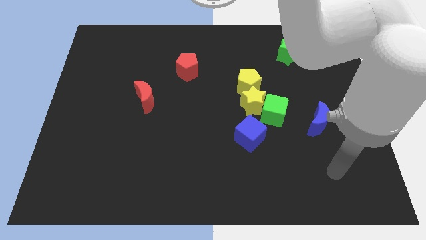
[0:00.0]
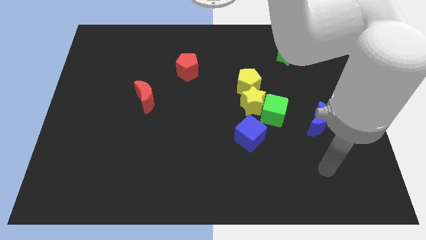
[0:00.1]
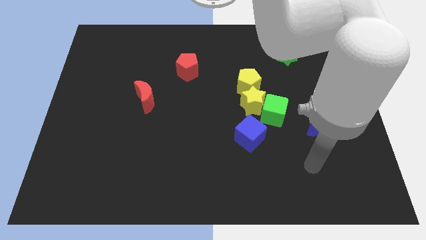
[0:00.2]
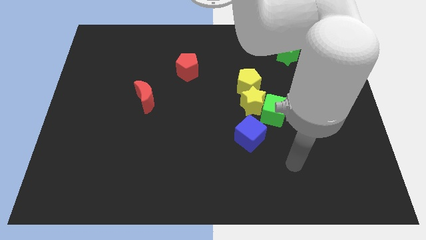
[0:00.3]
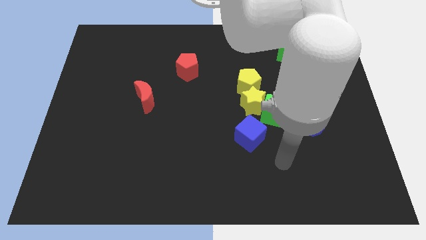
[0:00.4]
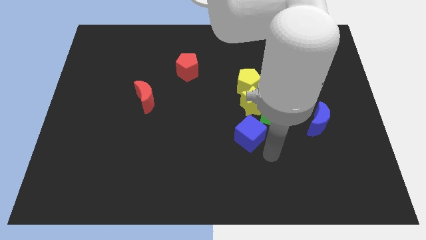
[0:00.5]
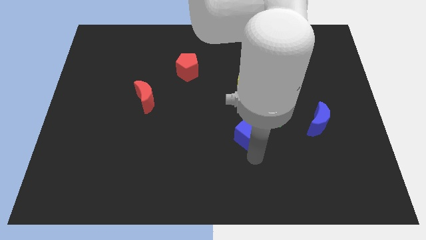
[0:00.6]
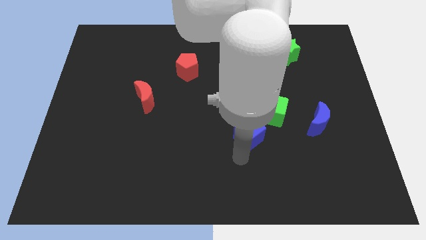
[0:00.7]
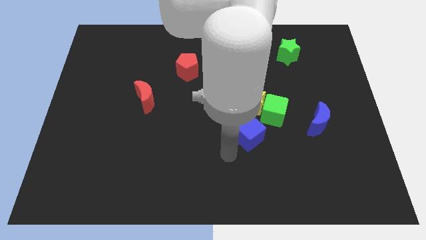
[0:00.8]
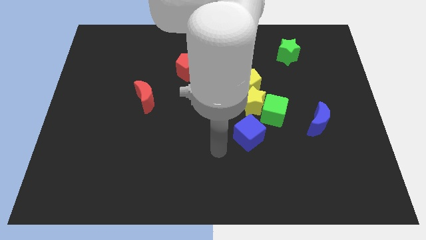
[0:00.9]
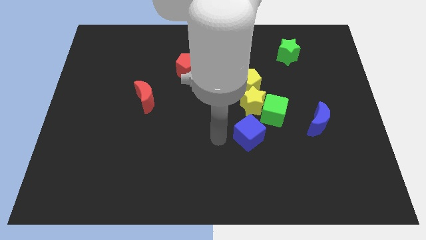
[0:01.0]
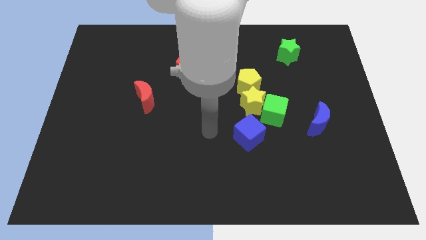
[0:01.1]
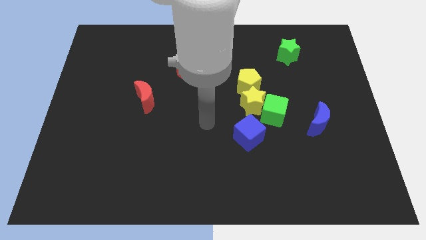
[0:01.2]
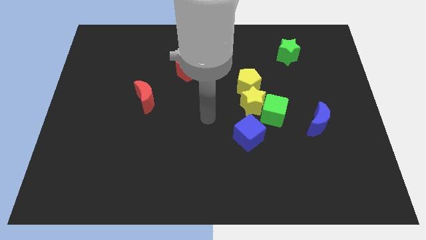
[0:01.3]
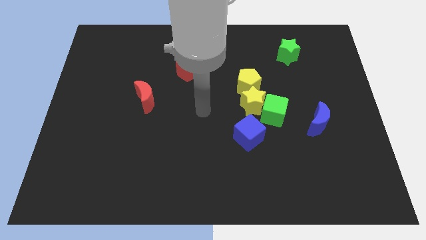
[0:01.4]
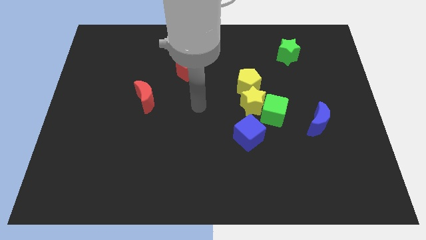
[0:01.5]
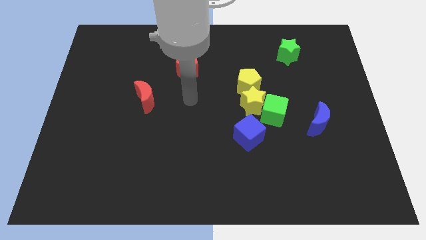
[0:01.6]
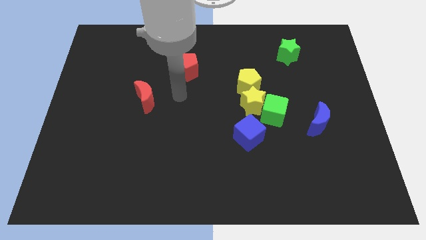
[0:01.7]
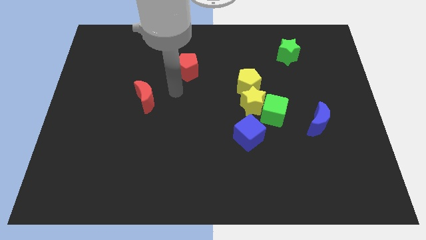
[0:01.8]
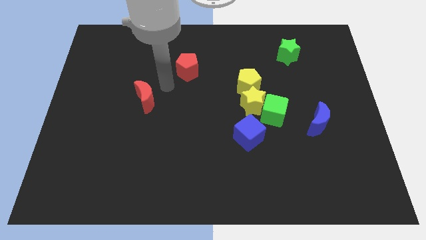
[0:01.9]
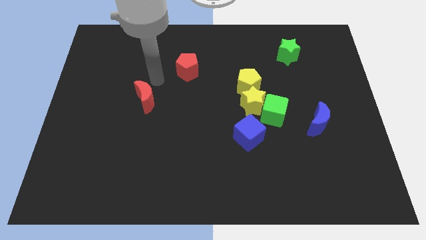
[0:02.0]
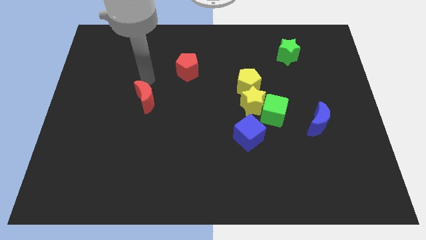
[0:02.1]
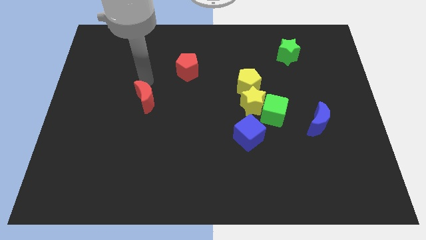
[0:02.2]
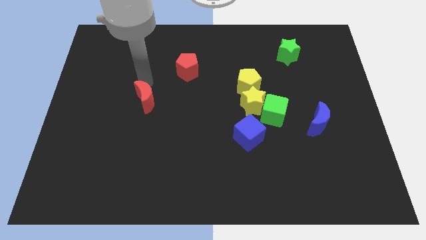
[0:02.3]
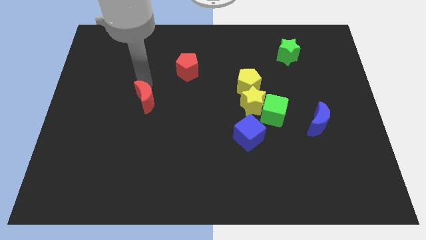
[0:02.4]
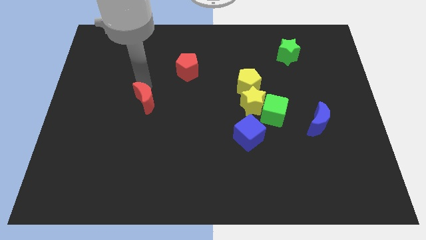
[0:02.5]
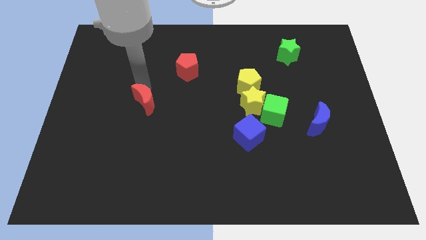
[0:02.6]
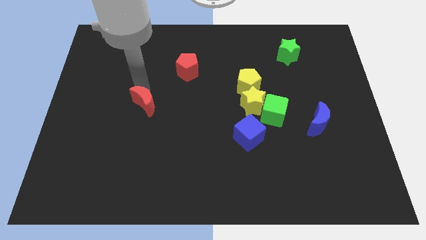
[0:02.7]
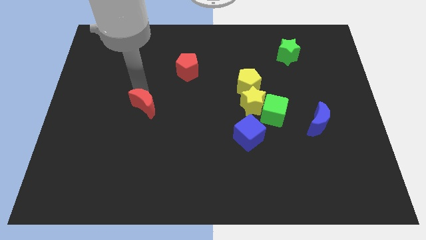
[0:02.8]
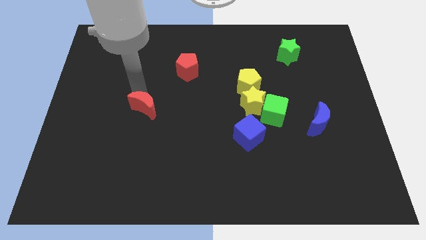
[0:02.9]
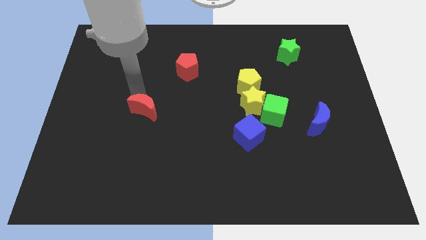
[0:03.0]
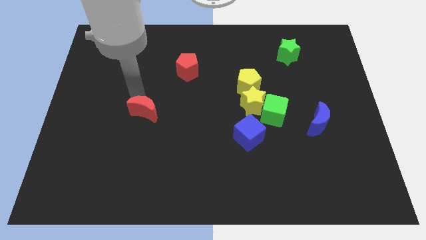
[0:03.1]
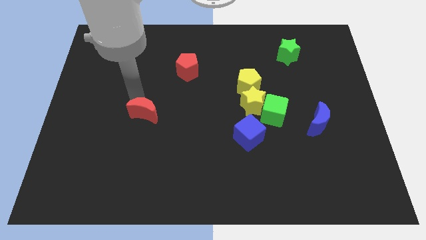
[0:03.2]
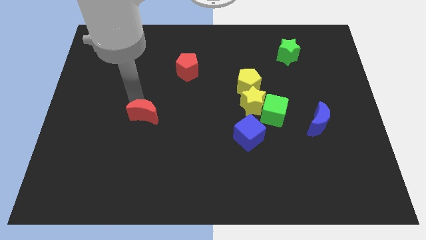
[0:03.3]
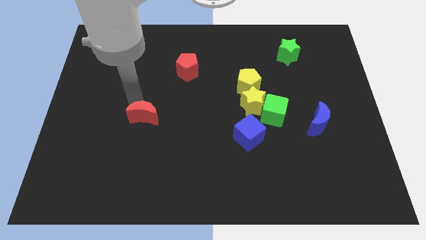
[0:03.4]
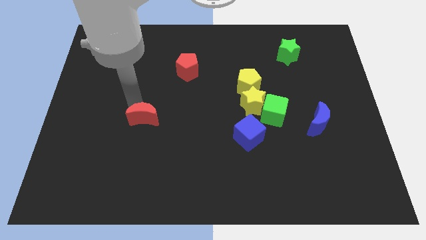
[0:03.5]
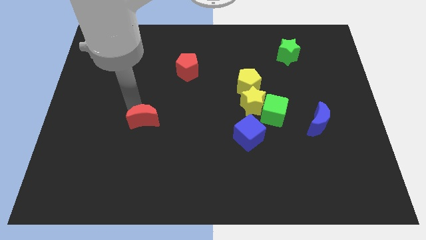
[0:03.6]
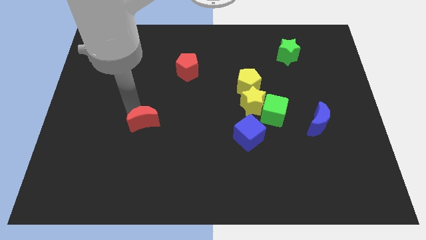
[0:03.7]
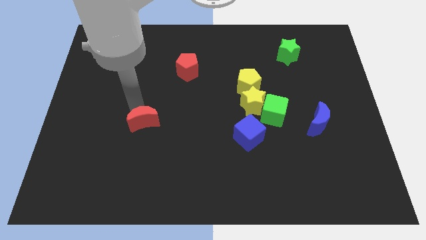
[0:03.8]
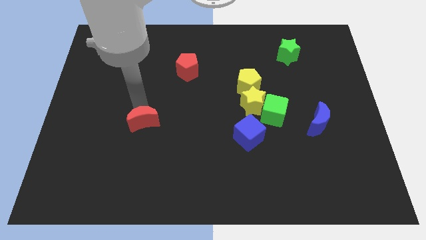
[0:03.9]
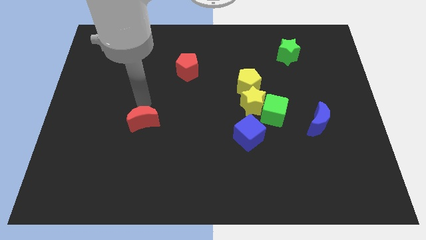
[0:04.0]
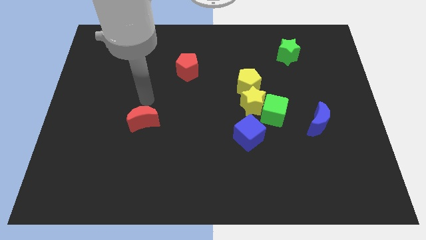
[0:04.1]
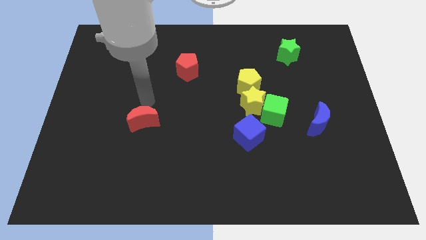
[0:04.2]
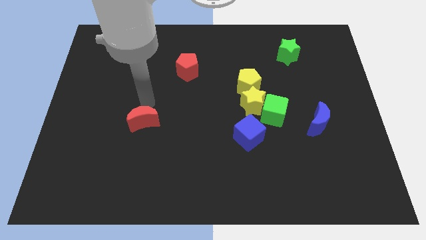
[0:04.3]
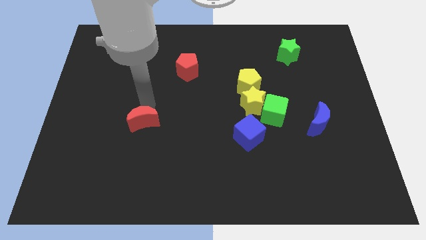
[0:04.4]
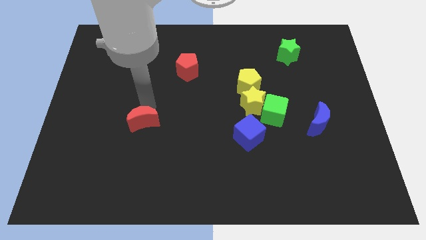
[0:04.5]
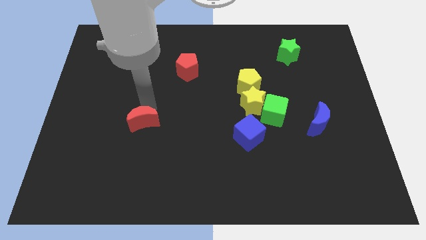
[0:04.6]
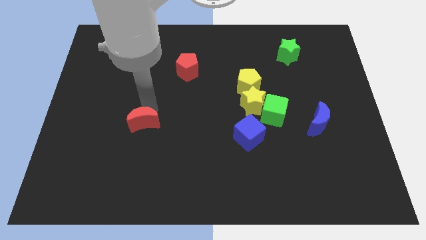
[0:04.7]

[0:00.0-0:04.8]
move the red moon down slightly

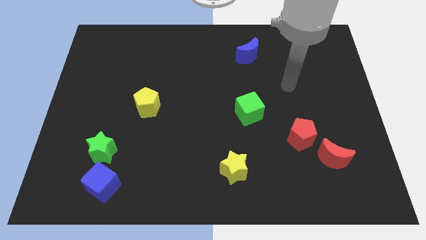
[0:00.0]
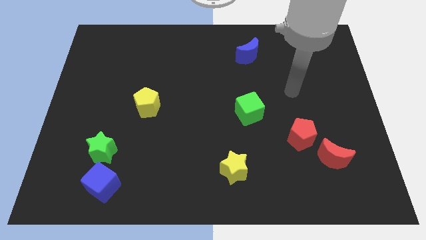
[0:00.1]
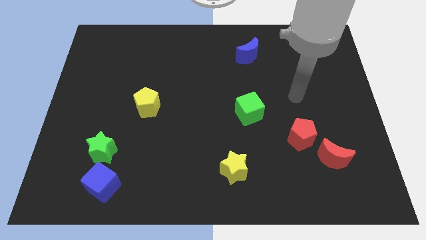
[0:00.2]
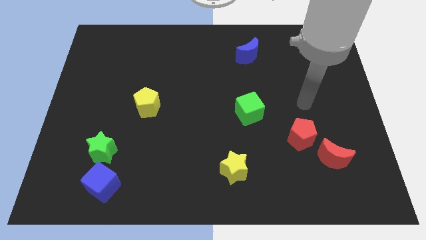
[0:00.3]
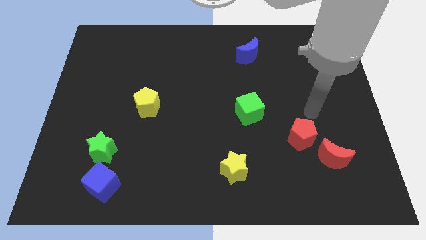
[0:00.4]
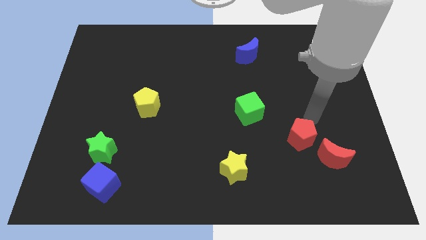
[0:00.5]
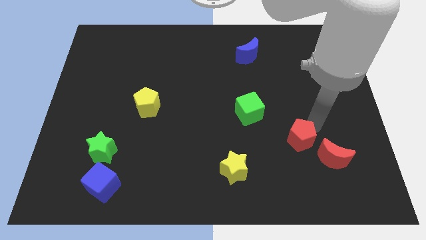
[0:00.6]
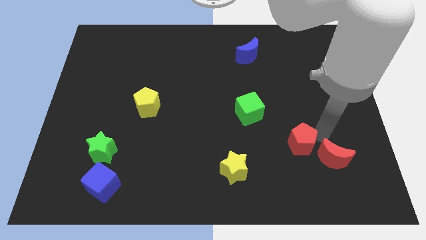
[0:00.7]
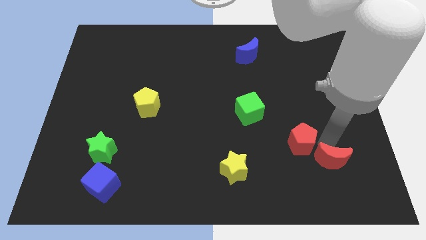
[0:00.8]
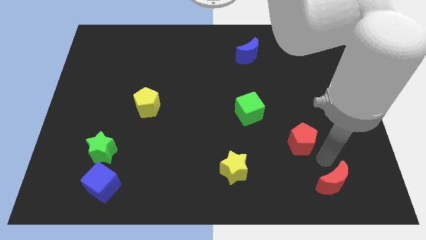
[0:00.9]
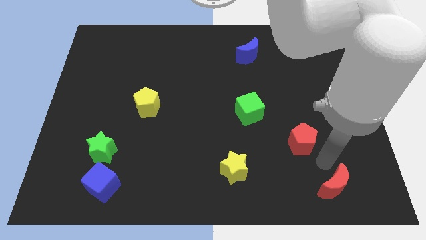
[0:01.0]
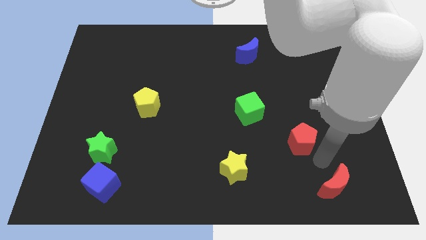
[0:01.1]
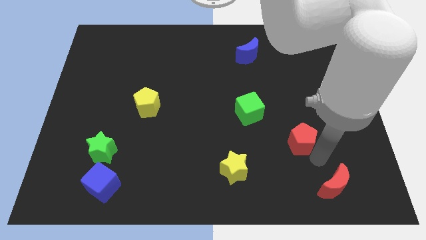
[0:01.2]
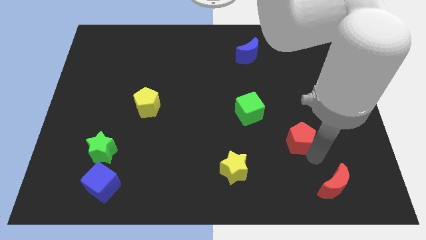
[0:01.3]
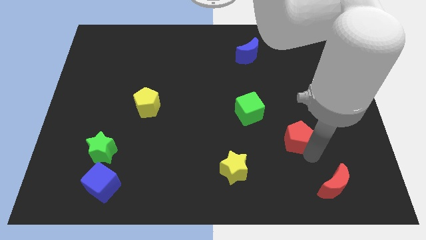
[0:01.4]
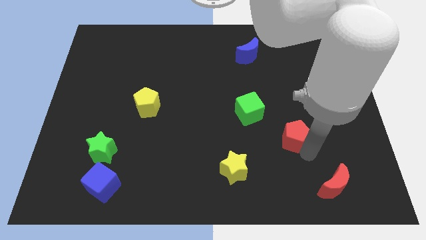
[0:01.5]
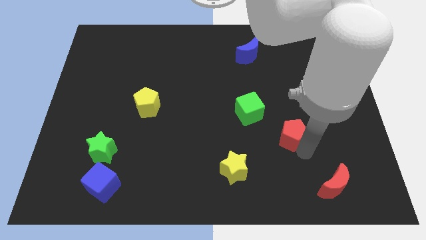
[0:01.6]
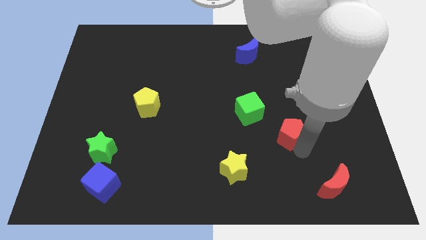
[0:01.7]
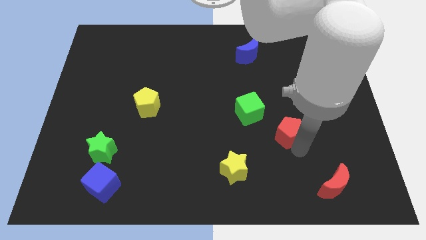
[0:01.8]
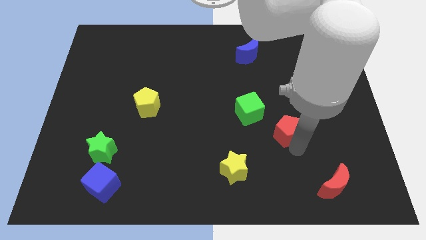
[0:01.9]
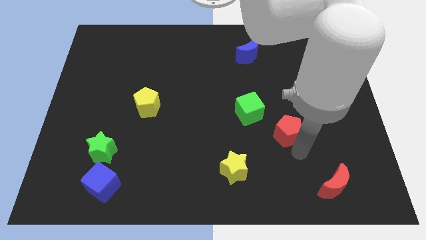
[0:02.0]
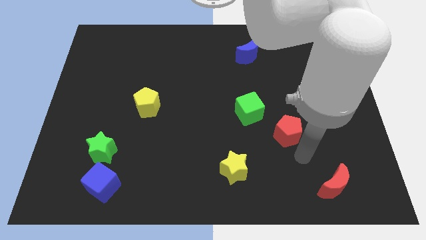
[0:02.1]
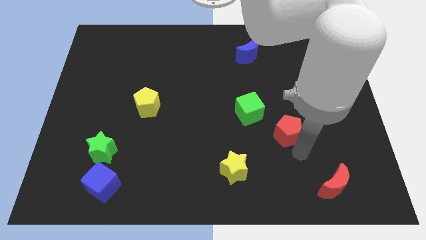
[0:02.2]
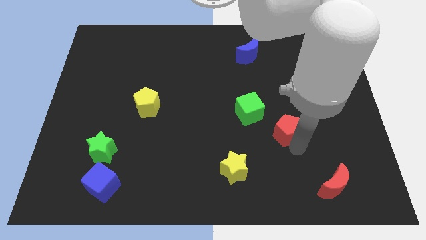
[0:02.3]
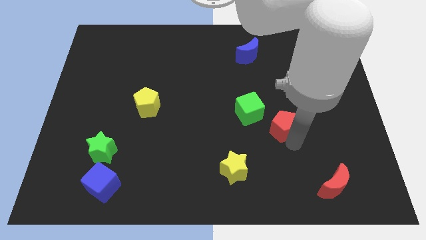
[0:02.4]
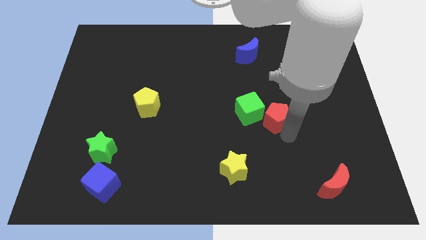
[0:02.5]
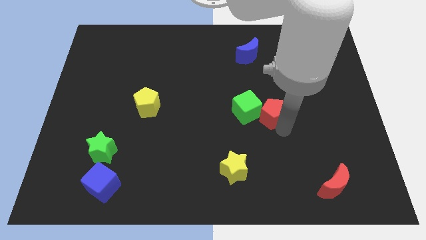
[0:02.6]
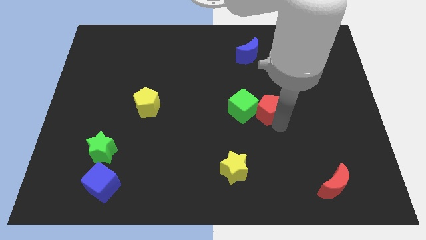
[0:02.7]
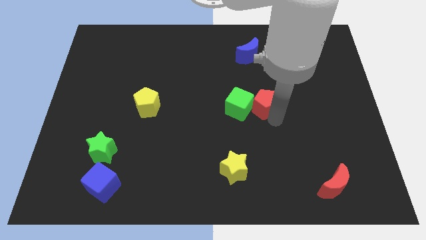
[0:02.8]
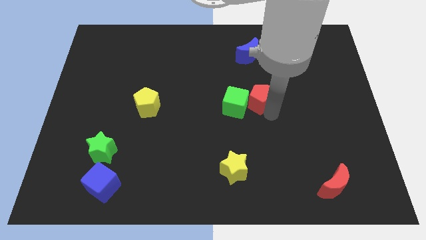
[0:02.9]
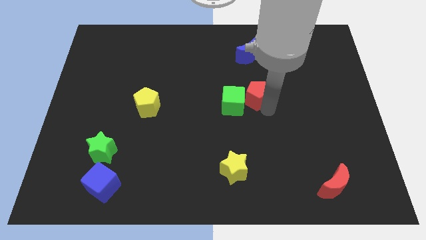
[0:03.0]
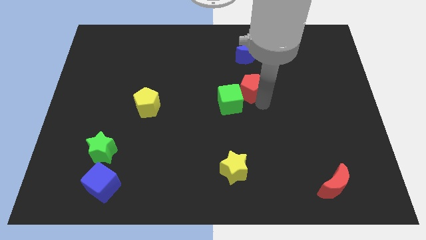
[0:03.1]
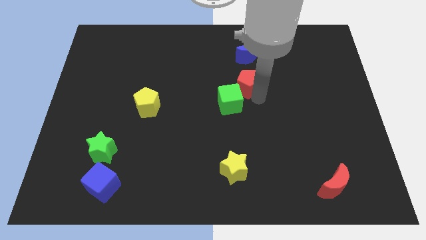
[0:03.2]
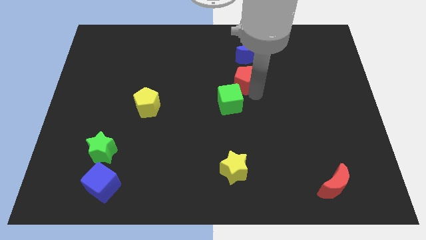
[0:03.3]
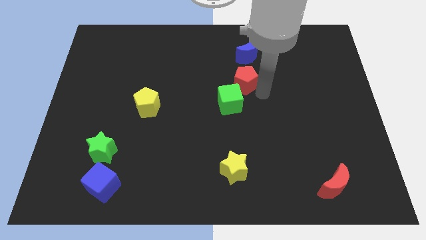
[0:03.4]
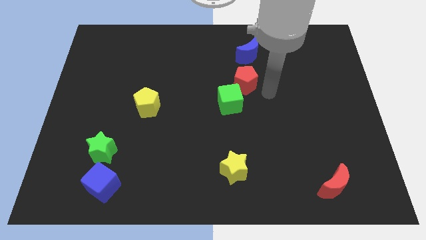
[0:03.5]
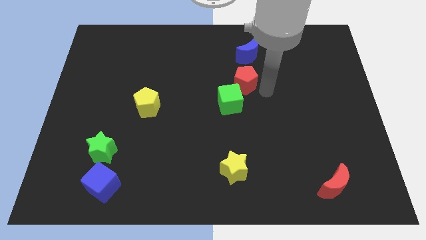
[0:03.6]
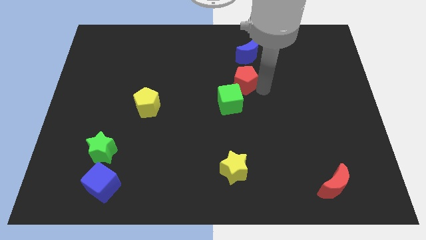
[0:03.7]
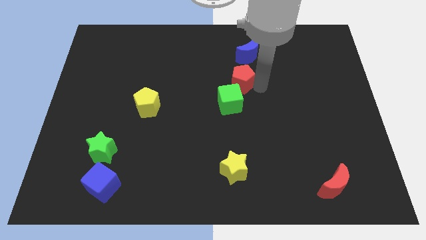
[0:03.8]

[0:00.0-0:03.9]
slide the red pentagon upwards and to the left diagonally
